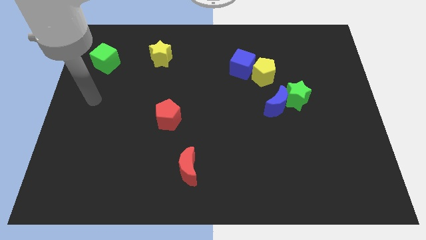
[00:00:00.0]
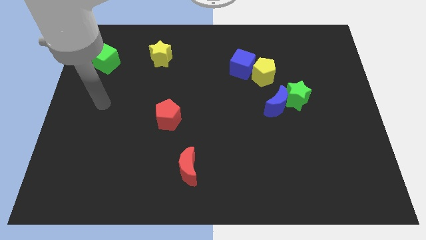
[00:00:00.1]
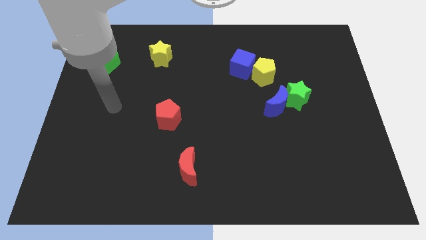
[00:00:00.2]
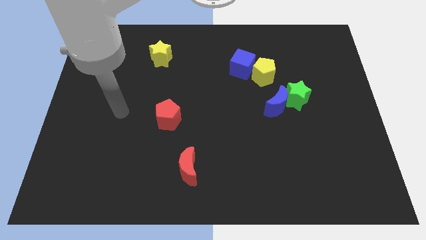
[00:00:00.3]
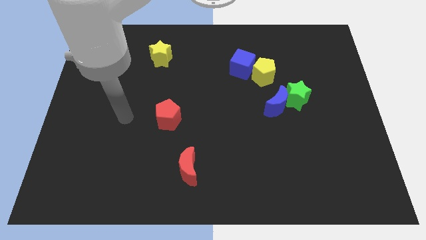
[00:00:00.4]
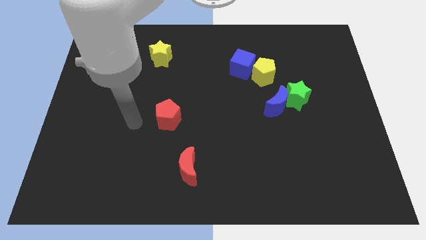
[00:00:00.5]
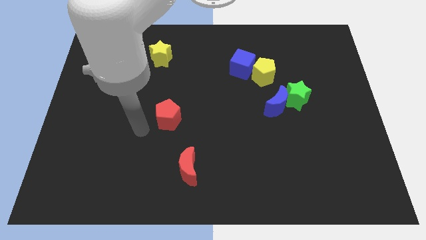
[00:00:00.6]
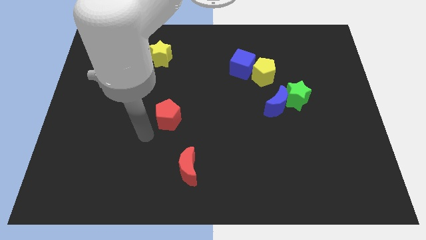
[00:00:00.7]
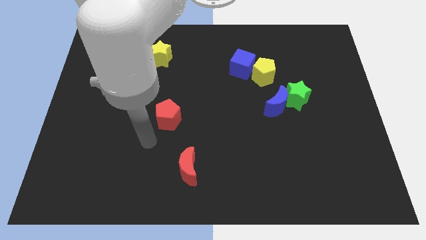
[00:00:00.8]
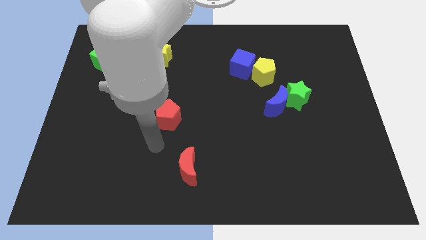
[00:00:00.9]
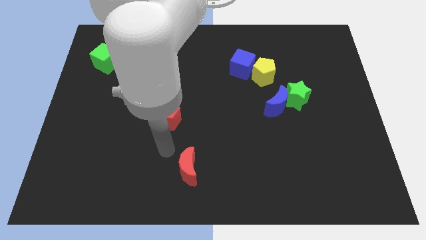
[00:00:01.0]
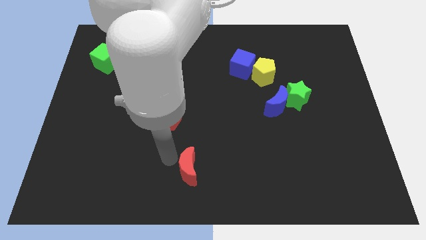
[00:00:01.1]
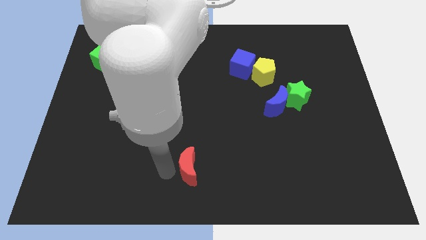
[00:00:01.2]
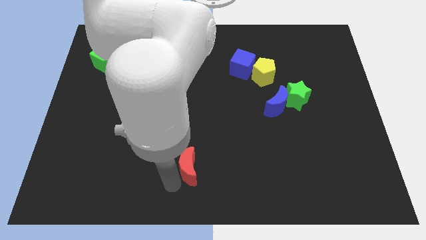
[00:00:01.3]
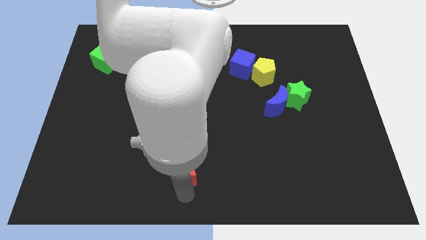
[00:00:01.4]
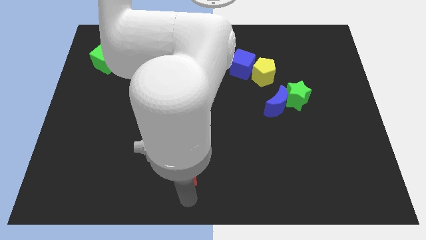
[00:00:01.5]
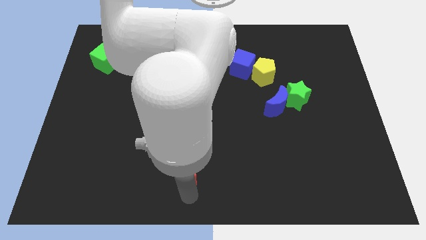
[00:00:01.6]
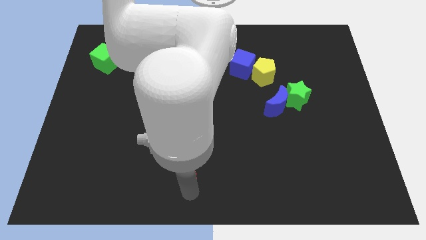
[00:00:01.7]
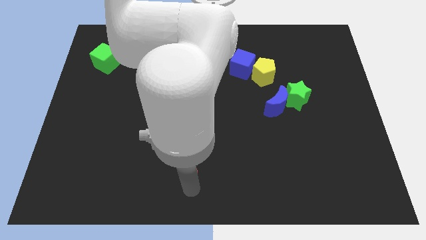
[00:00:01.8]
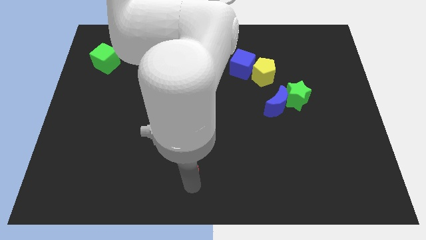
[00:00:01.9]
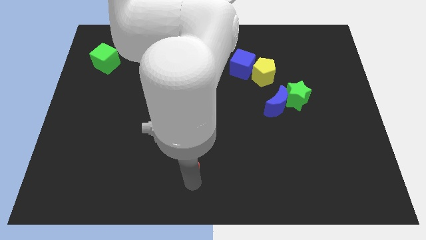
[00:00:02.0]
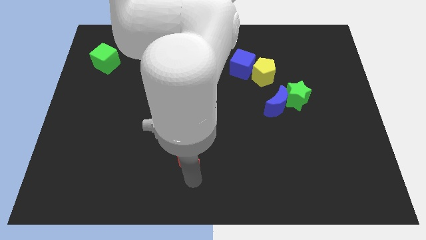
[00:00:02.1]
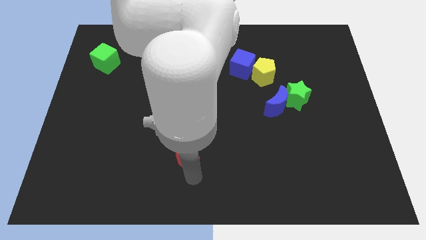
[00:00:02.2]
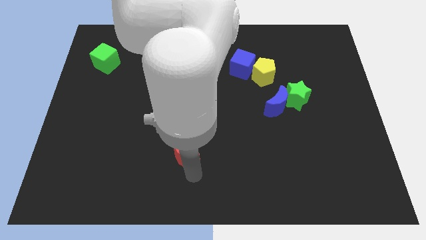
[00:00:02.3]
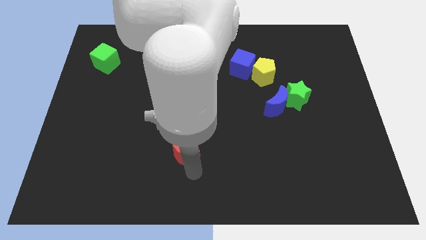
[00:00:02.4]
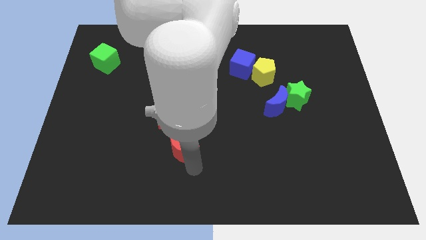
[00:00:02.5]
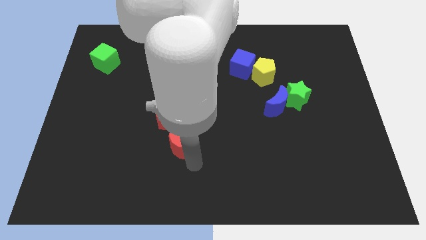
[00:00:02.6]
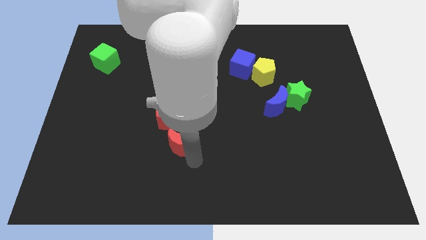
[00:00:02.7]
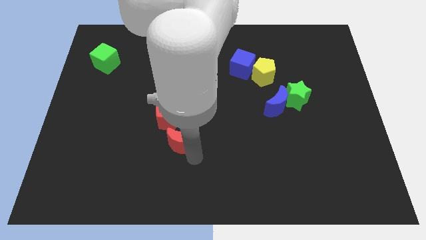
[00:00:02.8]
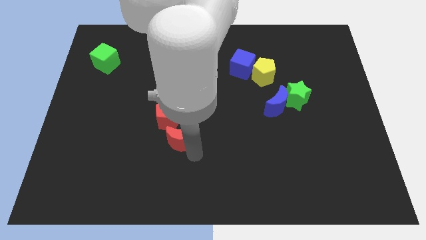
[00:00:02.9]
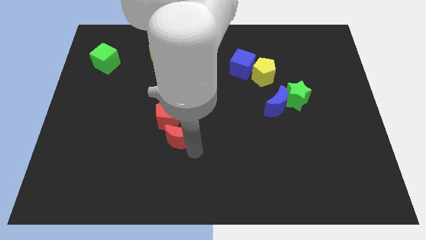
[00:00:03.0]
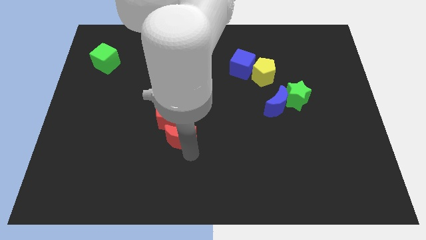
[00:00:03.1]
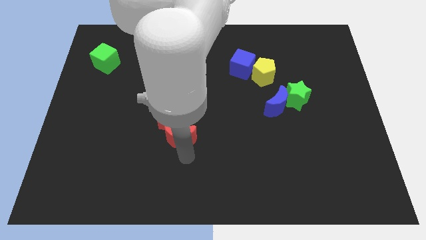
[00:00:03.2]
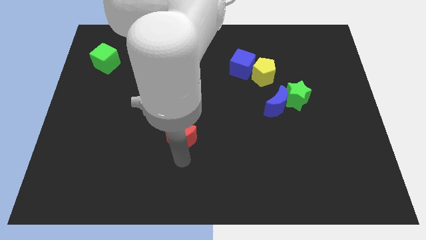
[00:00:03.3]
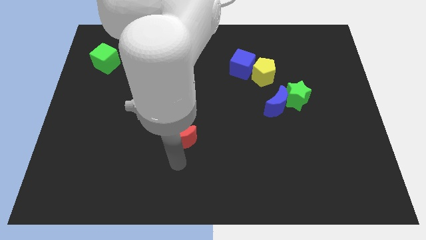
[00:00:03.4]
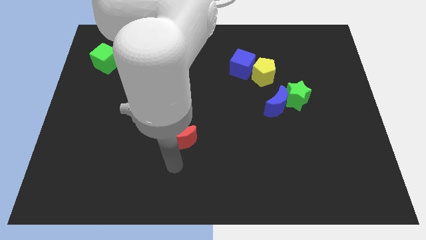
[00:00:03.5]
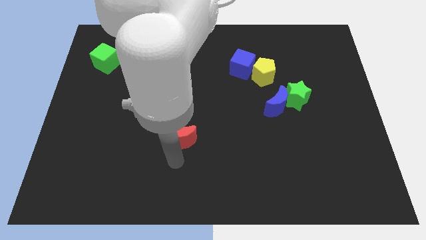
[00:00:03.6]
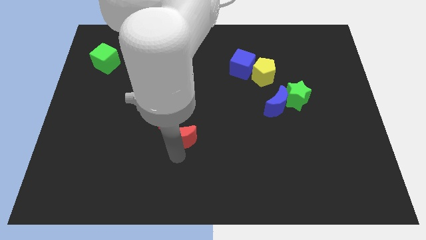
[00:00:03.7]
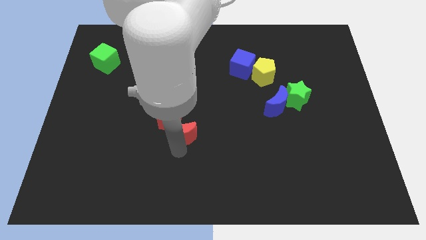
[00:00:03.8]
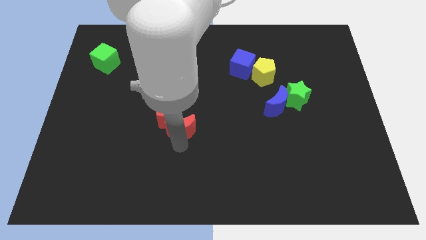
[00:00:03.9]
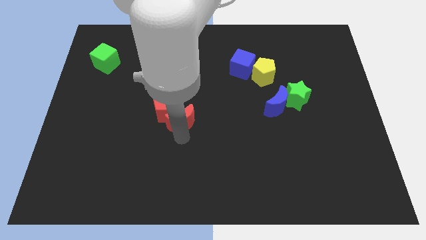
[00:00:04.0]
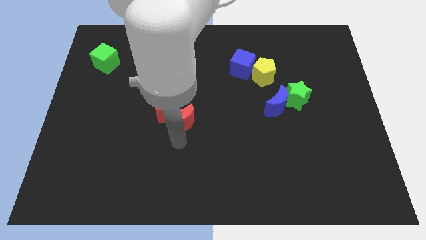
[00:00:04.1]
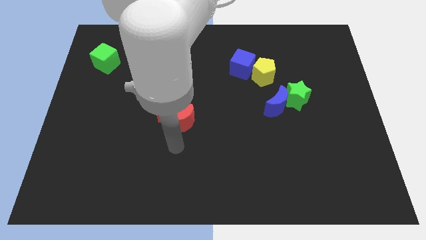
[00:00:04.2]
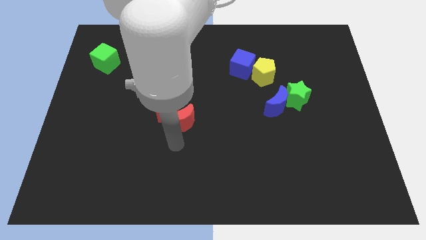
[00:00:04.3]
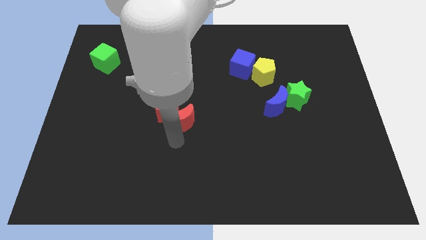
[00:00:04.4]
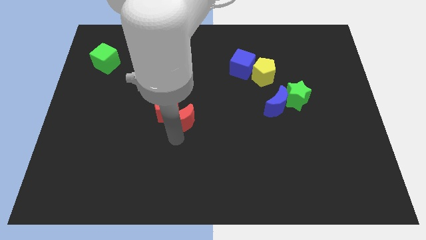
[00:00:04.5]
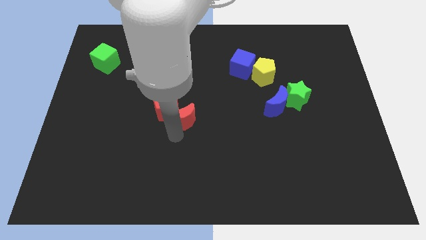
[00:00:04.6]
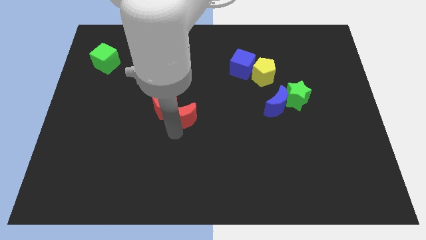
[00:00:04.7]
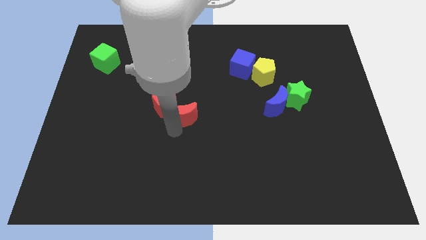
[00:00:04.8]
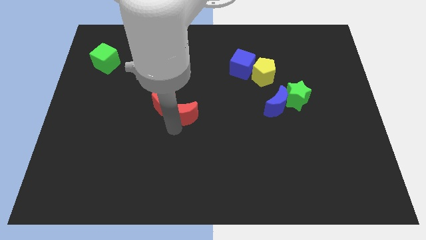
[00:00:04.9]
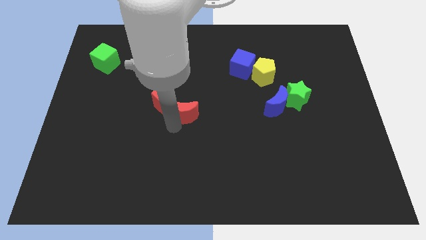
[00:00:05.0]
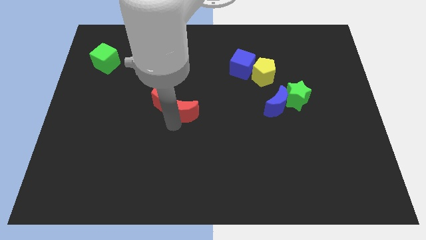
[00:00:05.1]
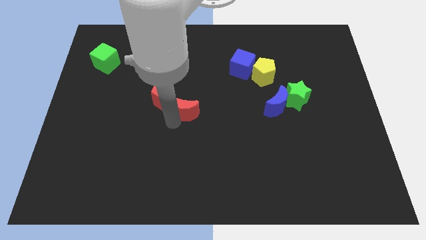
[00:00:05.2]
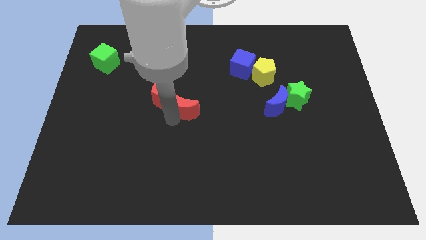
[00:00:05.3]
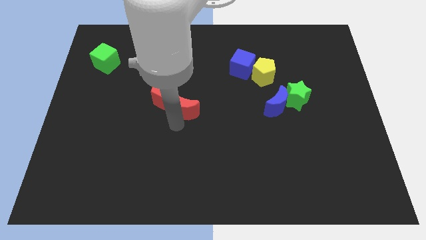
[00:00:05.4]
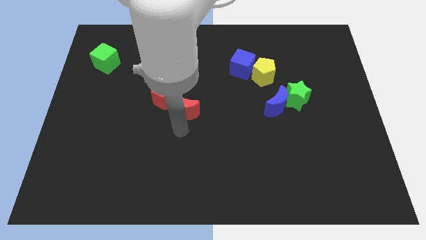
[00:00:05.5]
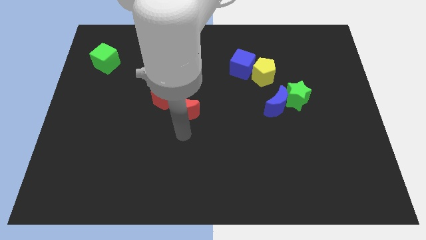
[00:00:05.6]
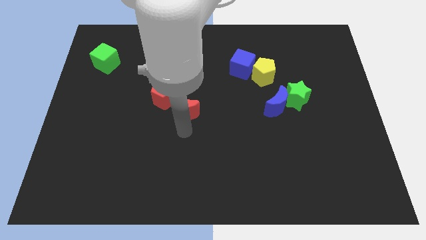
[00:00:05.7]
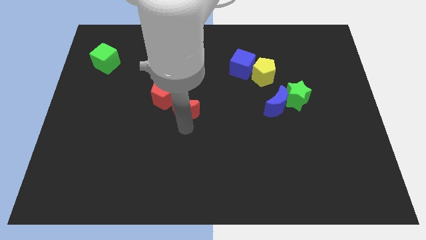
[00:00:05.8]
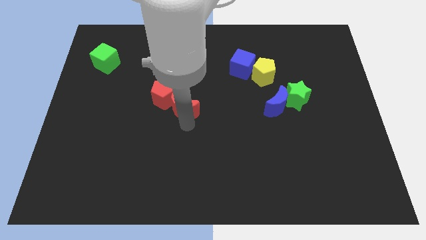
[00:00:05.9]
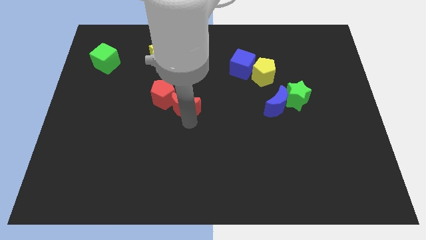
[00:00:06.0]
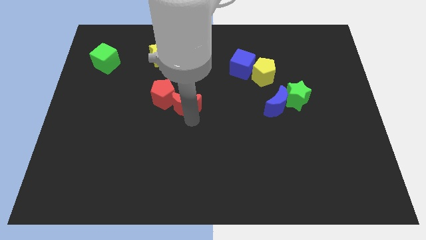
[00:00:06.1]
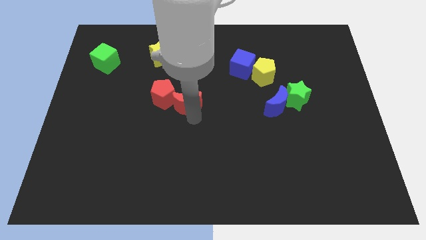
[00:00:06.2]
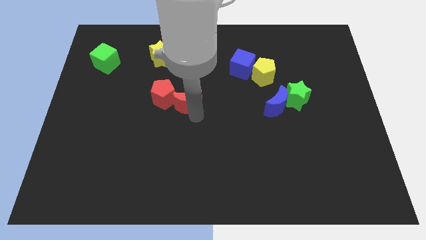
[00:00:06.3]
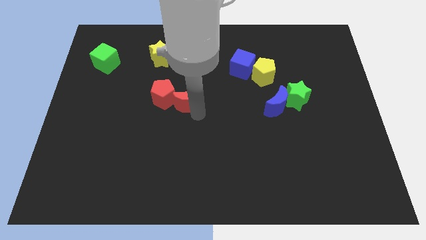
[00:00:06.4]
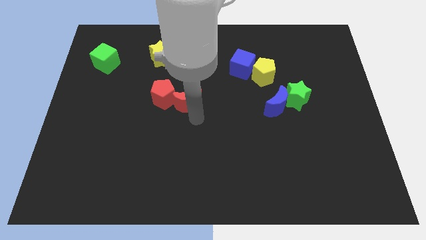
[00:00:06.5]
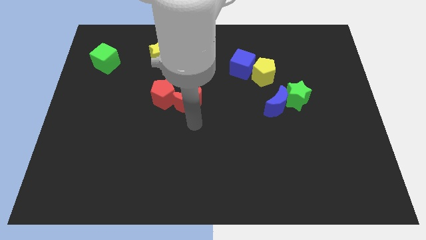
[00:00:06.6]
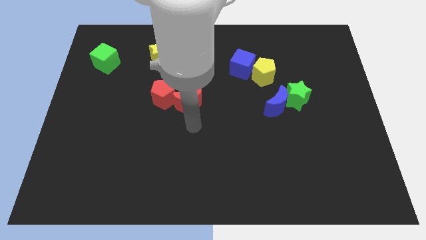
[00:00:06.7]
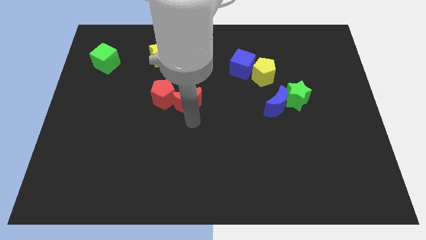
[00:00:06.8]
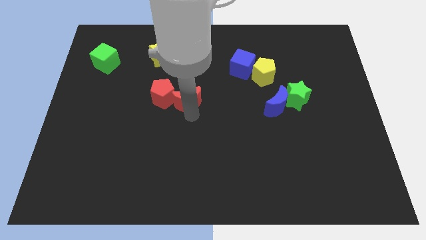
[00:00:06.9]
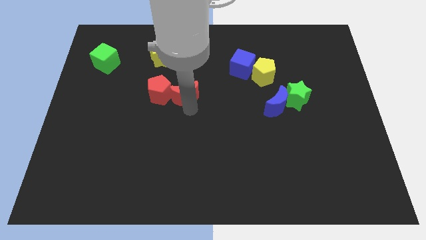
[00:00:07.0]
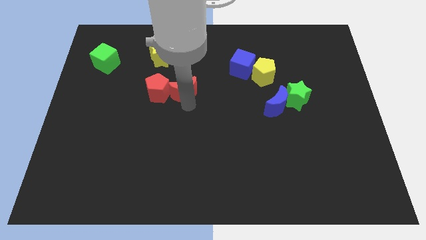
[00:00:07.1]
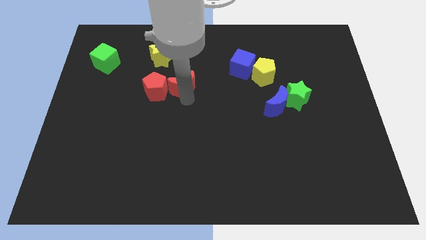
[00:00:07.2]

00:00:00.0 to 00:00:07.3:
put the red moon to the bottom right of the yellow star
